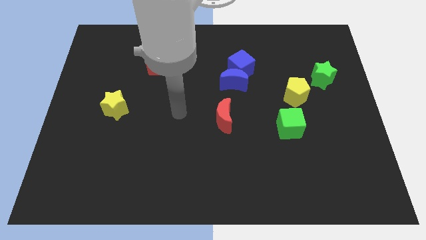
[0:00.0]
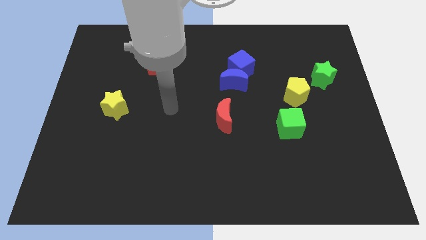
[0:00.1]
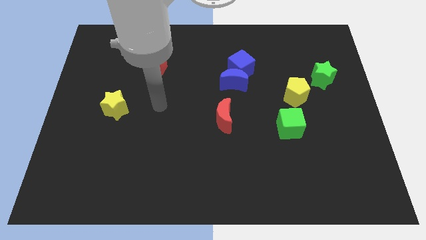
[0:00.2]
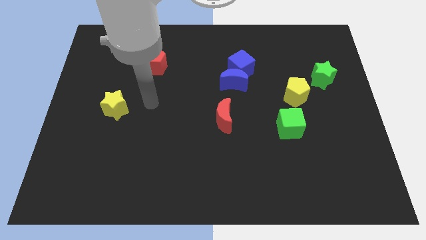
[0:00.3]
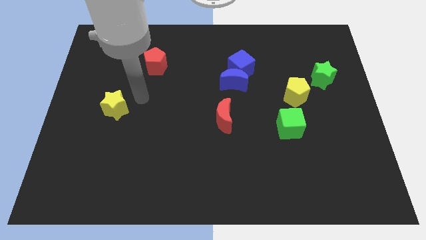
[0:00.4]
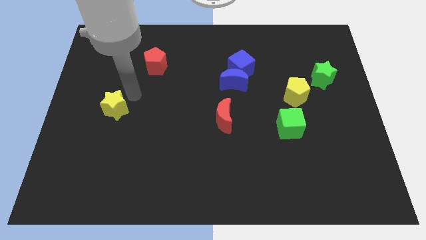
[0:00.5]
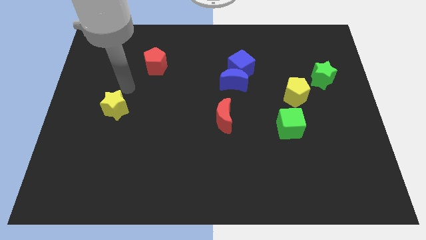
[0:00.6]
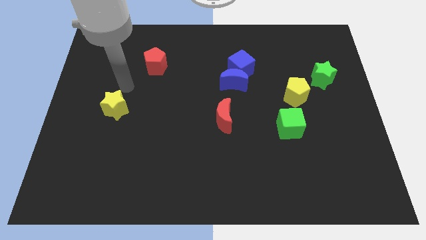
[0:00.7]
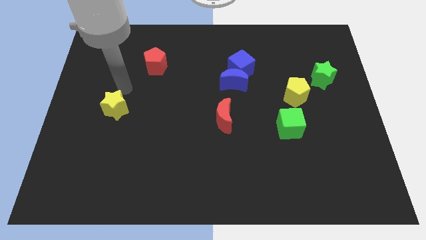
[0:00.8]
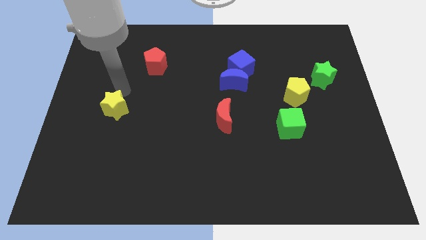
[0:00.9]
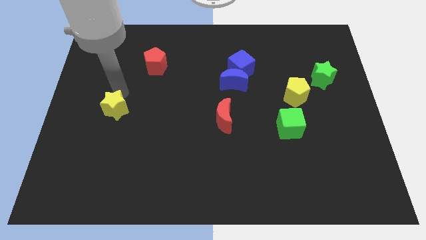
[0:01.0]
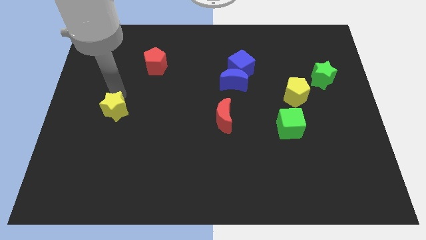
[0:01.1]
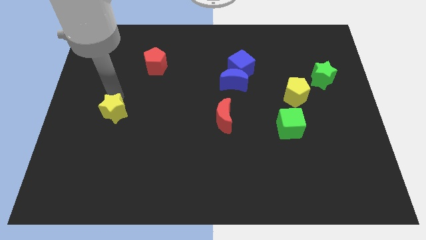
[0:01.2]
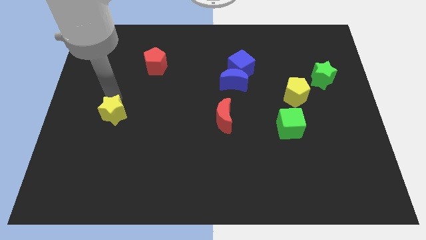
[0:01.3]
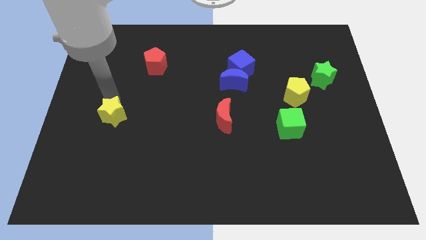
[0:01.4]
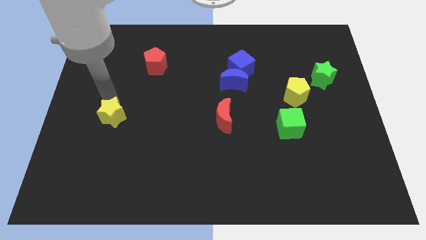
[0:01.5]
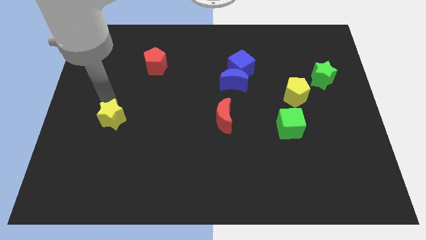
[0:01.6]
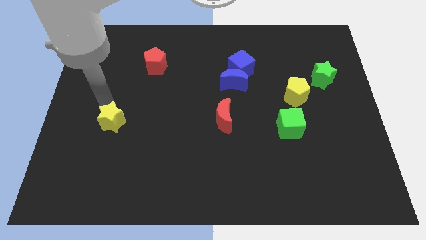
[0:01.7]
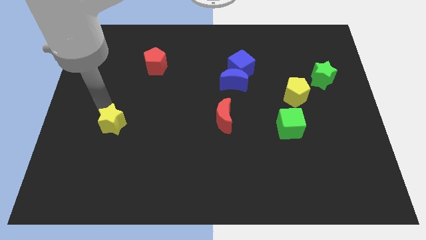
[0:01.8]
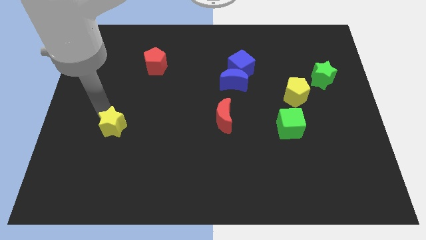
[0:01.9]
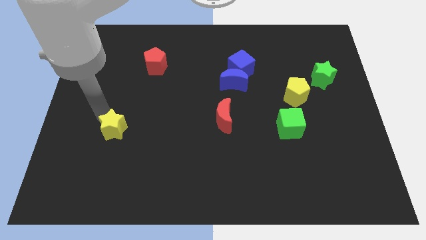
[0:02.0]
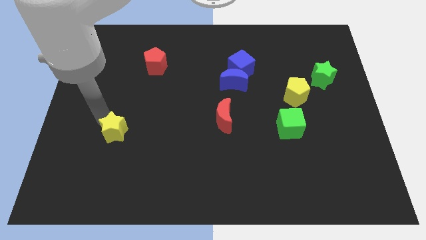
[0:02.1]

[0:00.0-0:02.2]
move the yellow star slightly downwards

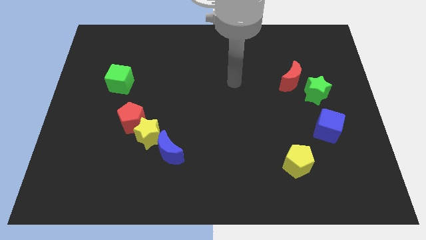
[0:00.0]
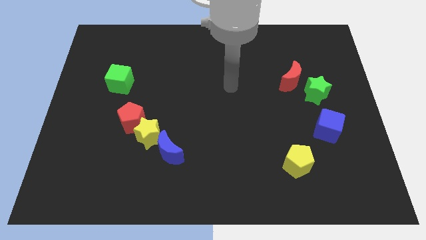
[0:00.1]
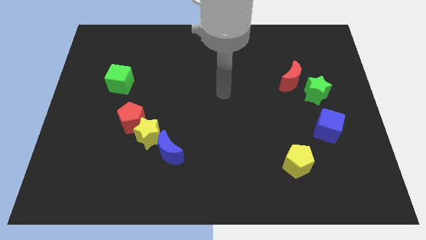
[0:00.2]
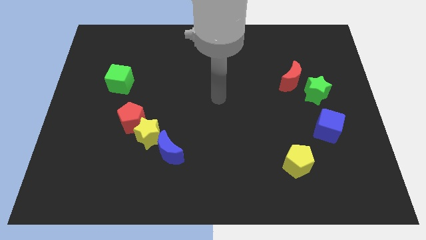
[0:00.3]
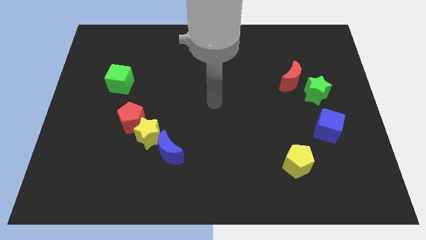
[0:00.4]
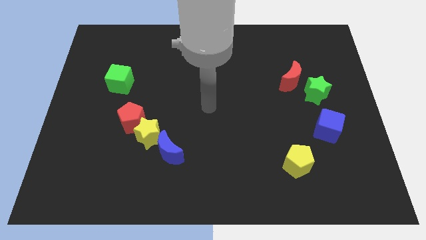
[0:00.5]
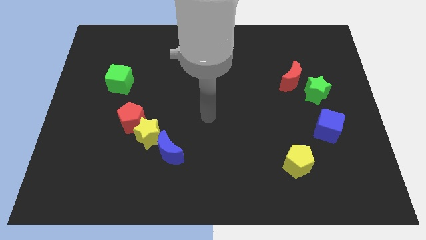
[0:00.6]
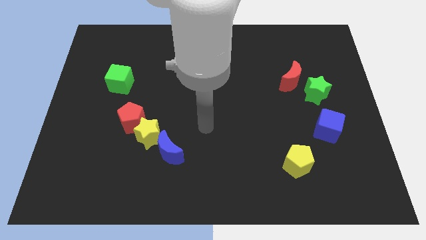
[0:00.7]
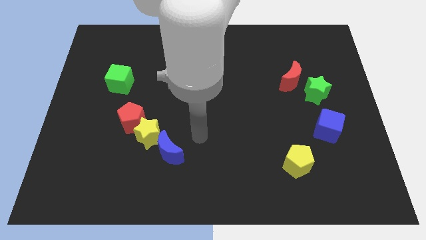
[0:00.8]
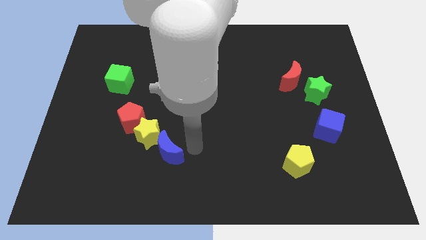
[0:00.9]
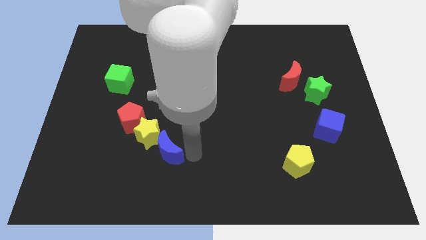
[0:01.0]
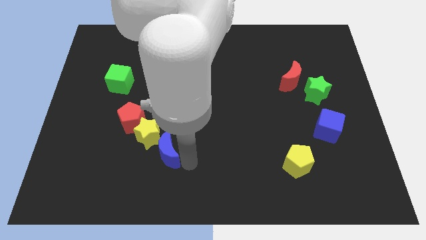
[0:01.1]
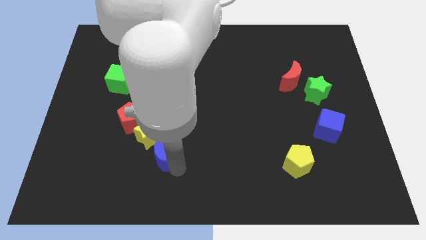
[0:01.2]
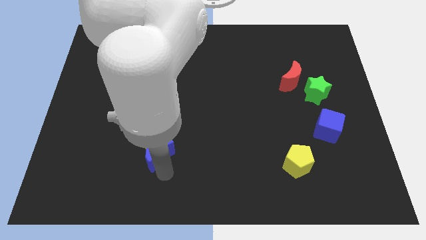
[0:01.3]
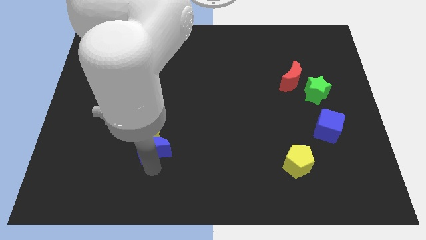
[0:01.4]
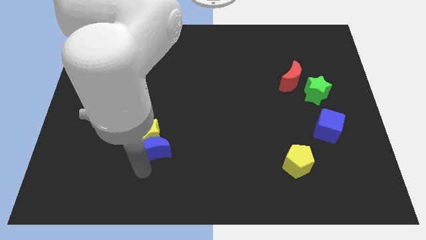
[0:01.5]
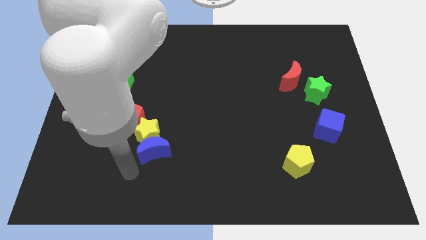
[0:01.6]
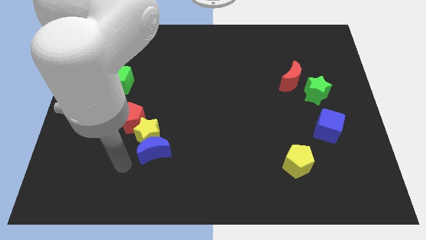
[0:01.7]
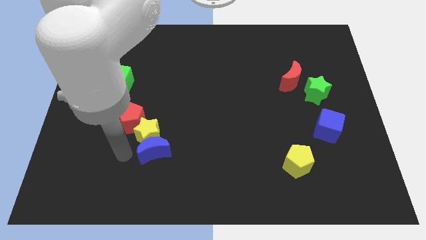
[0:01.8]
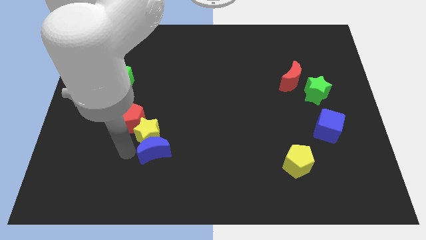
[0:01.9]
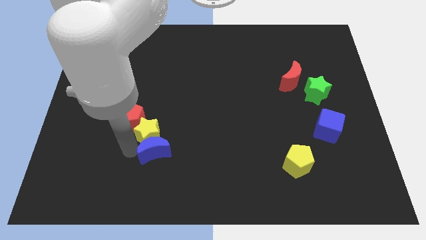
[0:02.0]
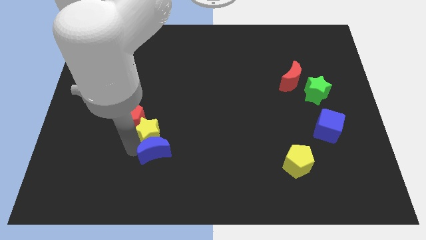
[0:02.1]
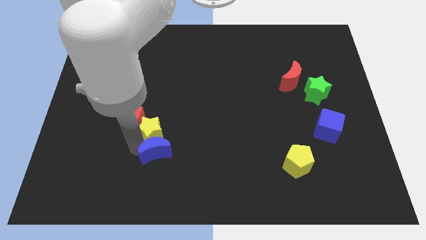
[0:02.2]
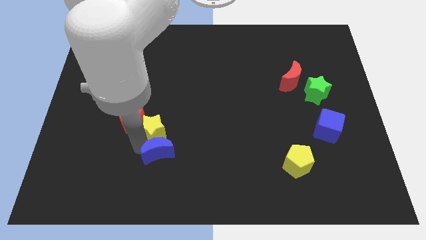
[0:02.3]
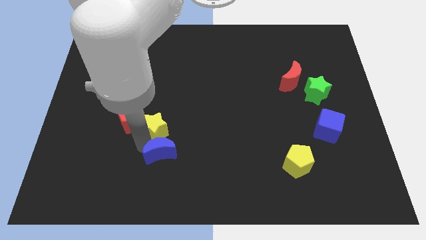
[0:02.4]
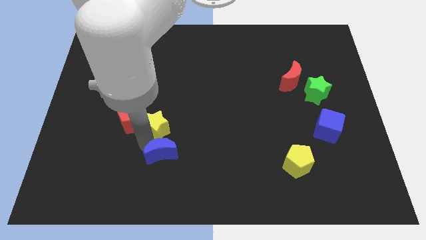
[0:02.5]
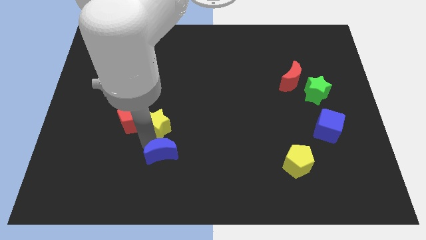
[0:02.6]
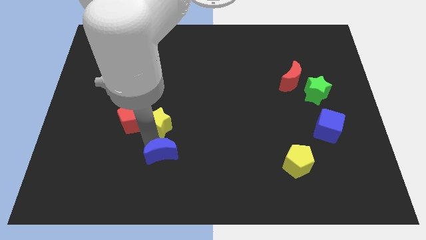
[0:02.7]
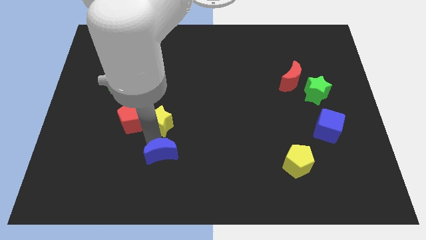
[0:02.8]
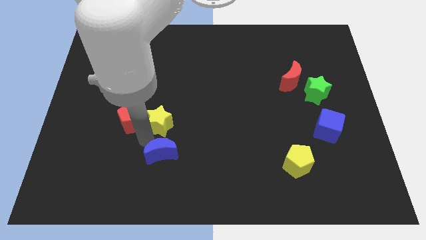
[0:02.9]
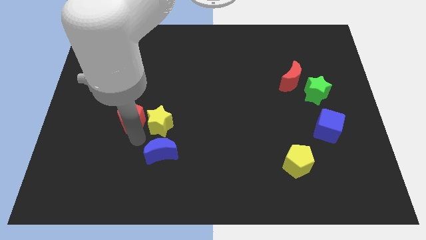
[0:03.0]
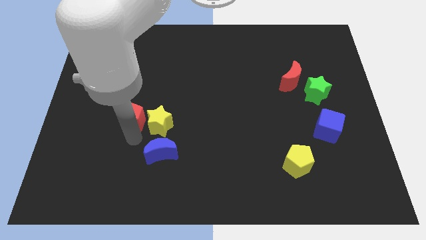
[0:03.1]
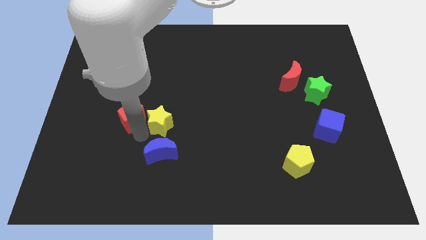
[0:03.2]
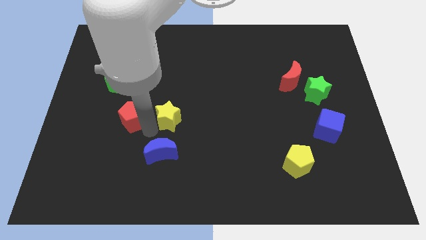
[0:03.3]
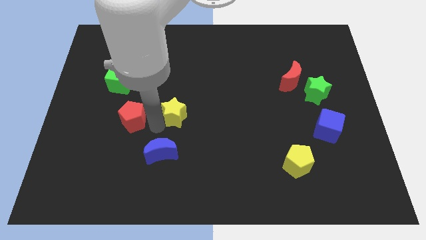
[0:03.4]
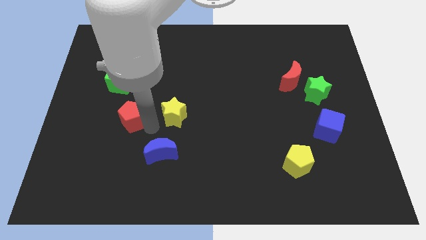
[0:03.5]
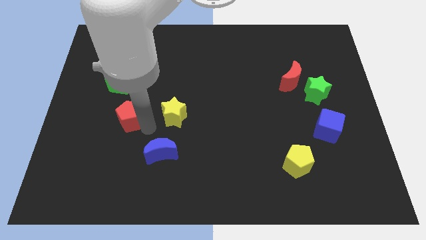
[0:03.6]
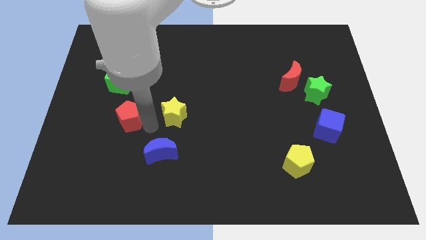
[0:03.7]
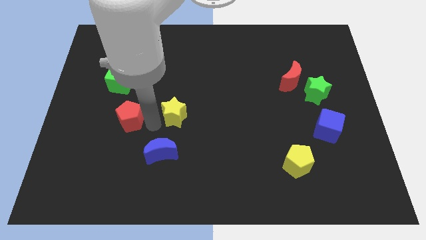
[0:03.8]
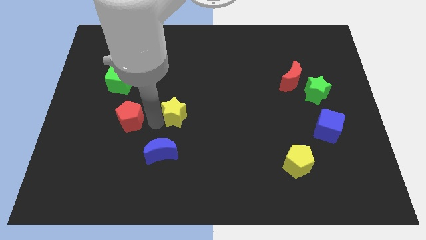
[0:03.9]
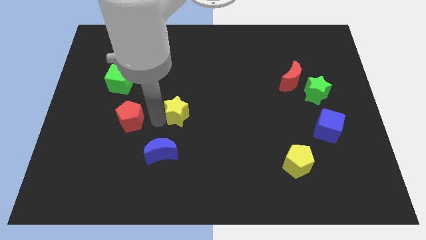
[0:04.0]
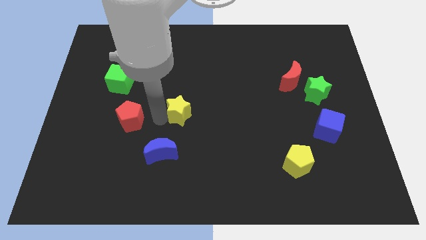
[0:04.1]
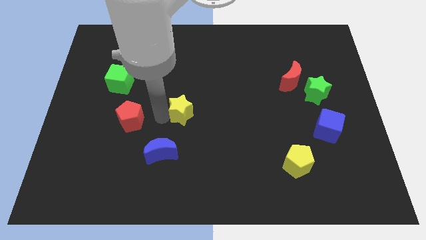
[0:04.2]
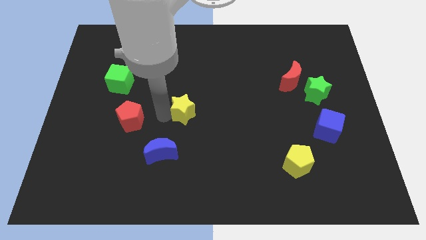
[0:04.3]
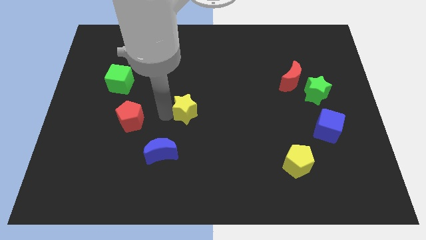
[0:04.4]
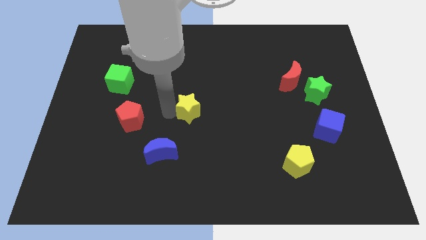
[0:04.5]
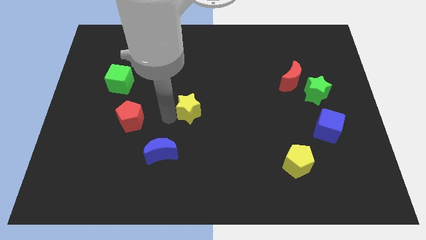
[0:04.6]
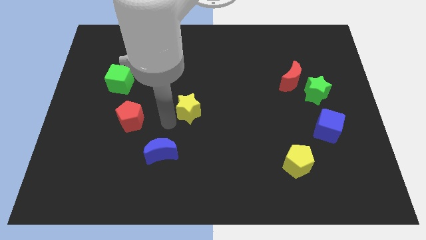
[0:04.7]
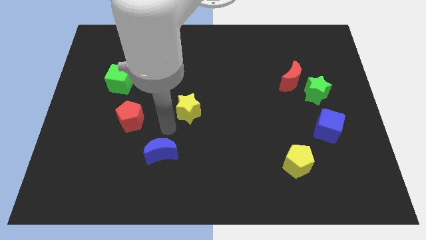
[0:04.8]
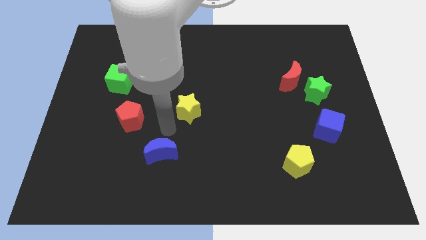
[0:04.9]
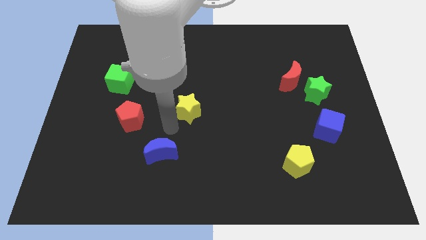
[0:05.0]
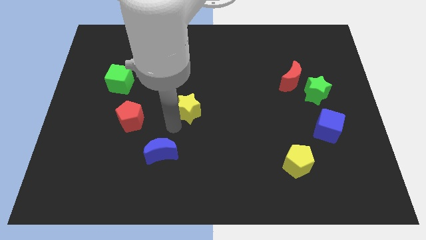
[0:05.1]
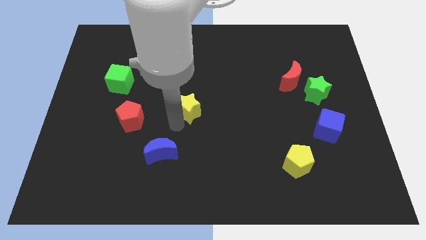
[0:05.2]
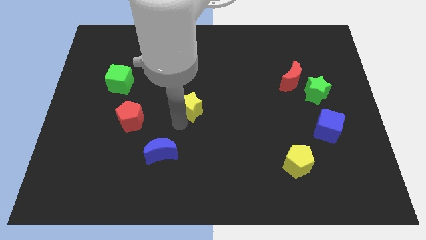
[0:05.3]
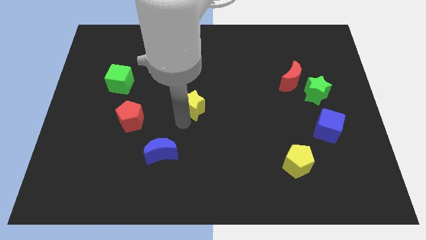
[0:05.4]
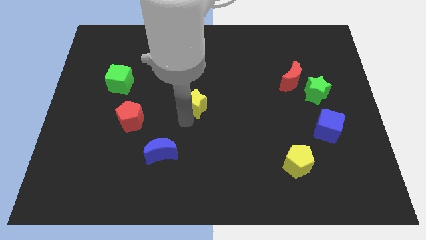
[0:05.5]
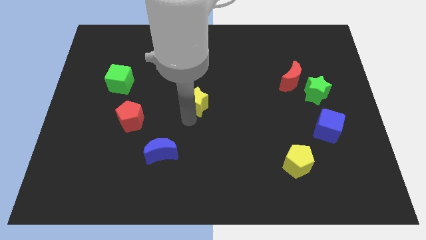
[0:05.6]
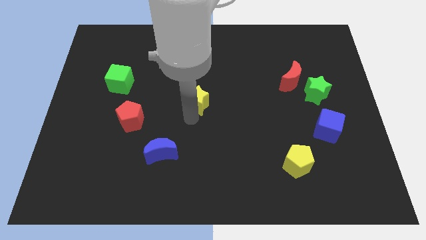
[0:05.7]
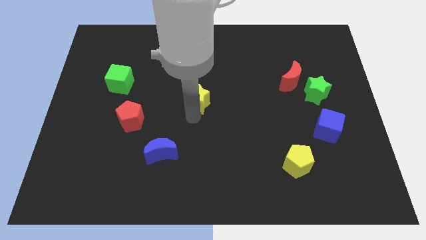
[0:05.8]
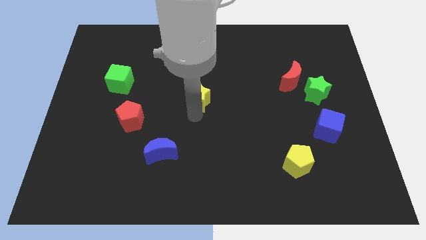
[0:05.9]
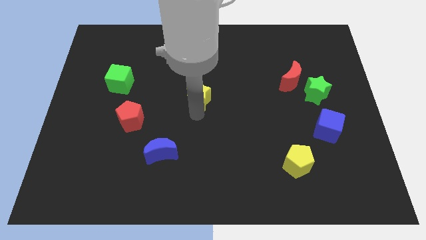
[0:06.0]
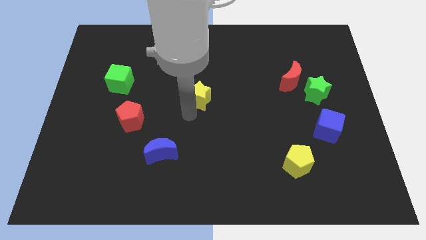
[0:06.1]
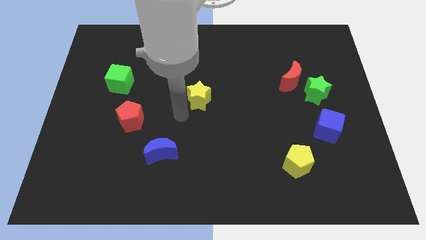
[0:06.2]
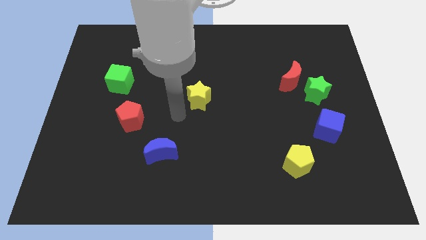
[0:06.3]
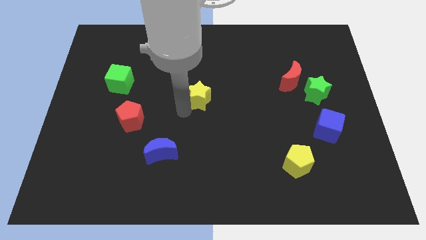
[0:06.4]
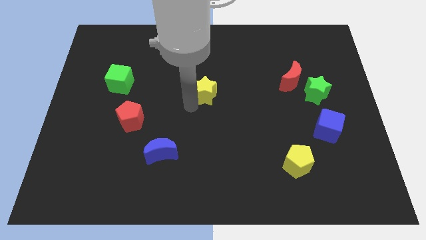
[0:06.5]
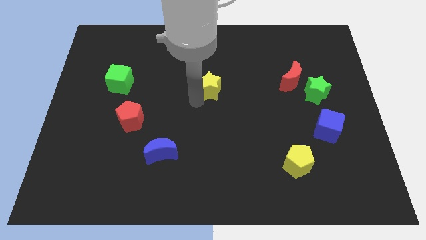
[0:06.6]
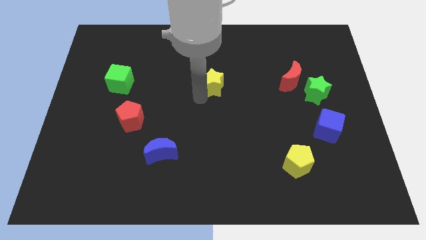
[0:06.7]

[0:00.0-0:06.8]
slide the yellow star upwards and then to the right
